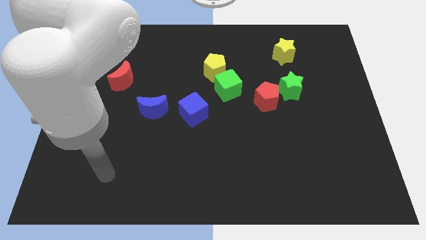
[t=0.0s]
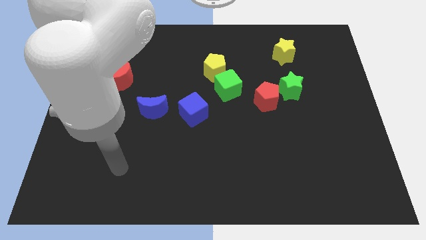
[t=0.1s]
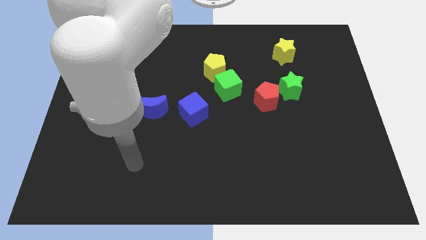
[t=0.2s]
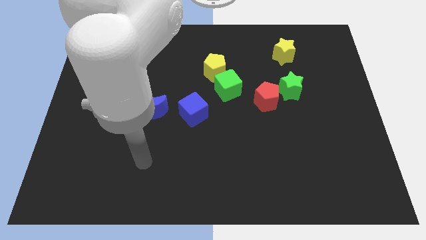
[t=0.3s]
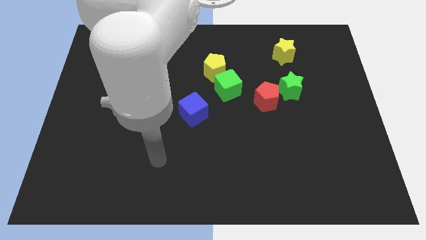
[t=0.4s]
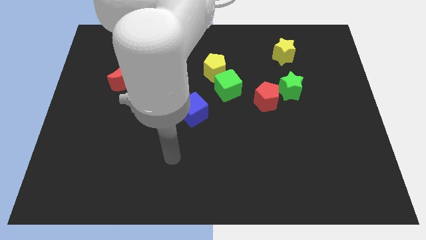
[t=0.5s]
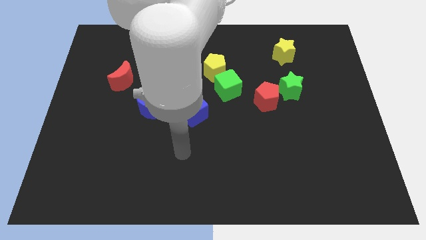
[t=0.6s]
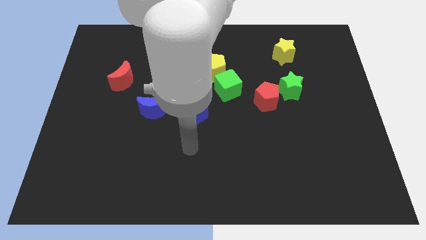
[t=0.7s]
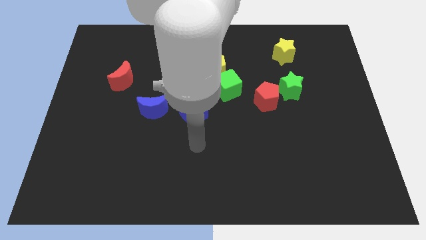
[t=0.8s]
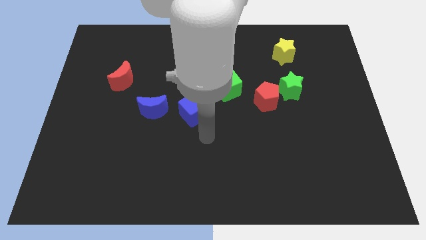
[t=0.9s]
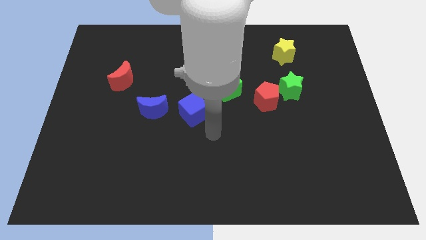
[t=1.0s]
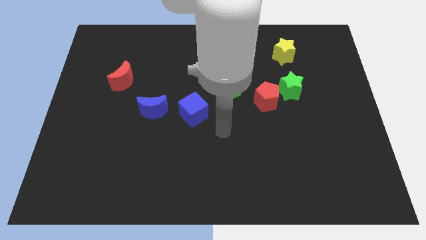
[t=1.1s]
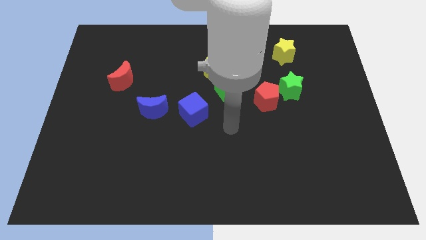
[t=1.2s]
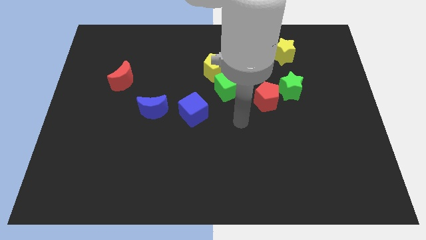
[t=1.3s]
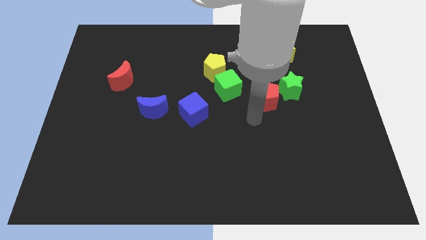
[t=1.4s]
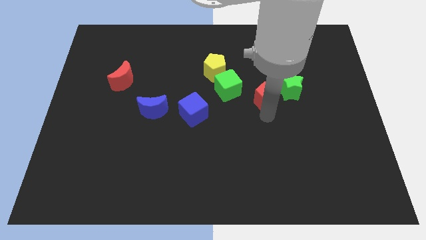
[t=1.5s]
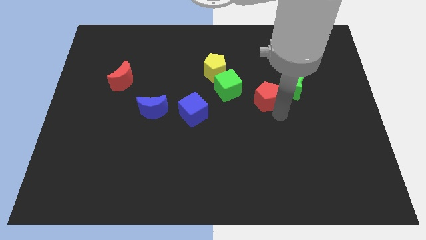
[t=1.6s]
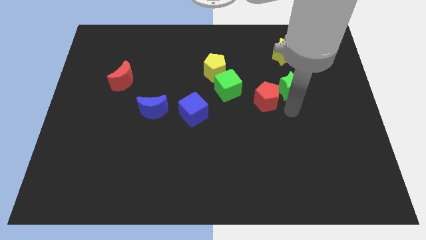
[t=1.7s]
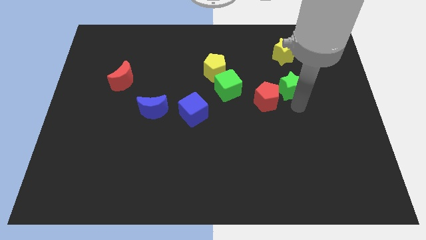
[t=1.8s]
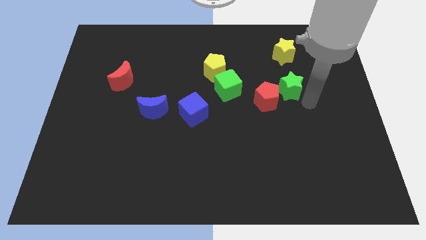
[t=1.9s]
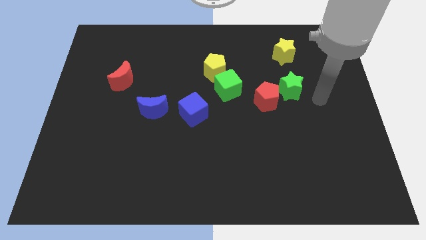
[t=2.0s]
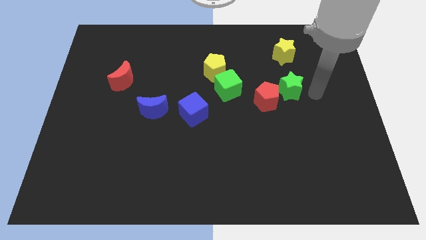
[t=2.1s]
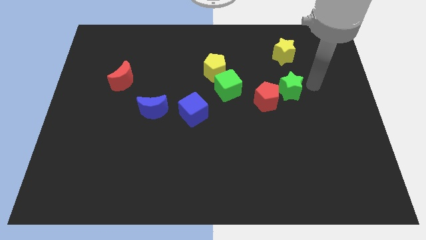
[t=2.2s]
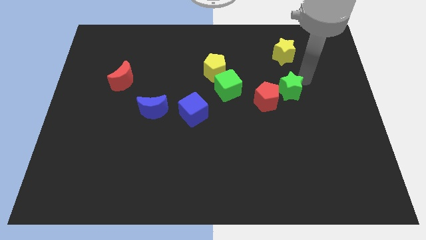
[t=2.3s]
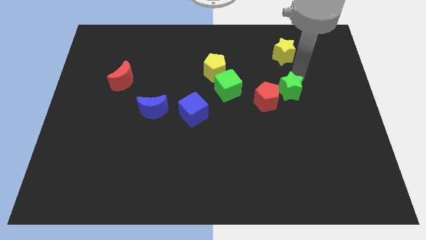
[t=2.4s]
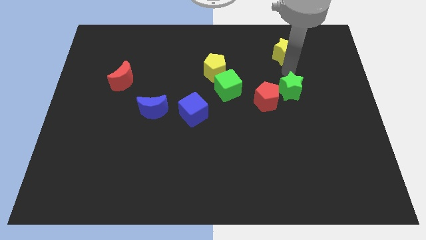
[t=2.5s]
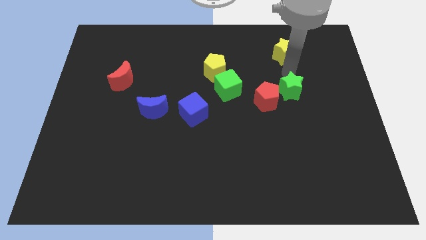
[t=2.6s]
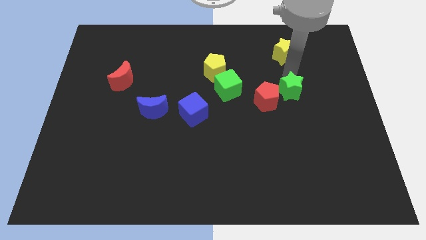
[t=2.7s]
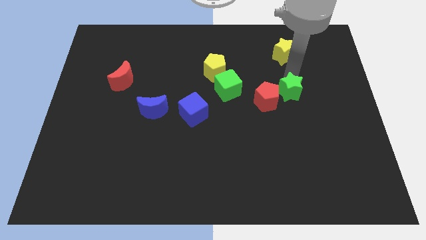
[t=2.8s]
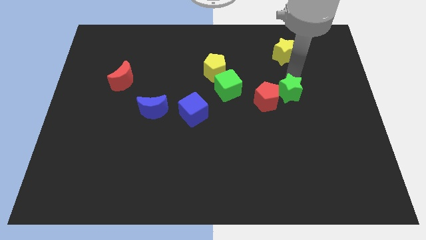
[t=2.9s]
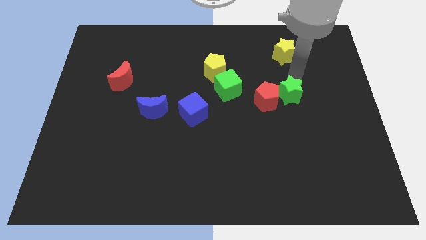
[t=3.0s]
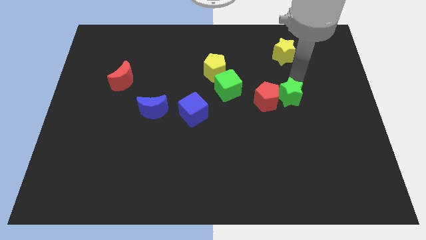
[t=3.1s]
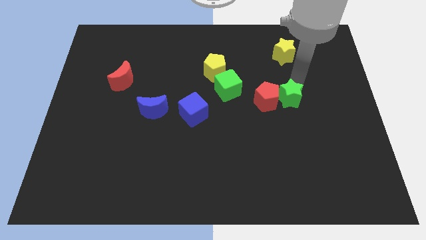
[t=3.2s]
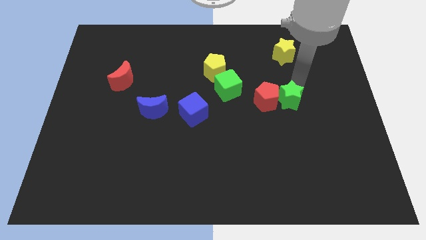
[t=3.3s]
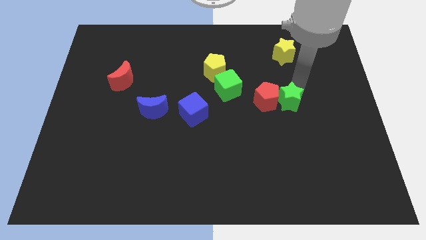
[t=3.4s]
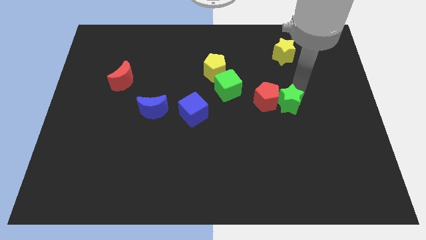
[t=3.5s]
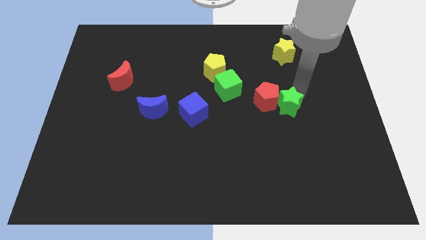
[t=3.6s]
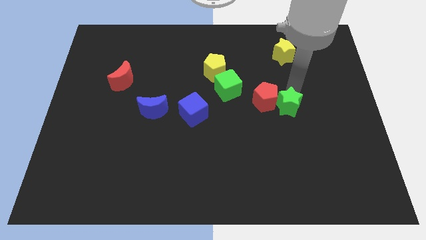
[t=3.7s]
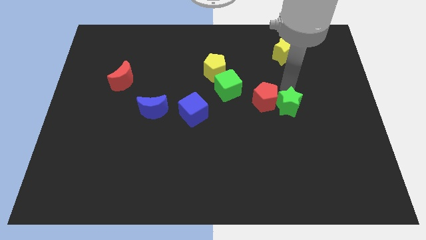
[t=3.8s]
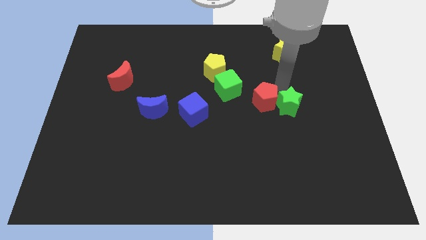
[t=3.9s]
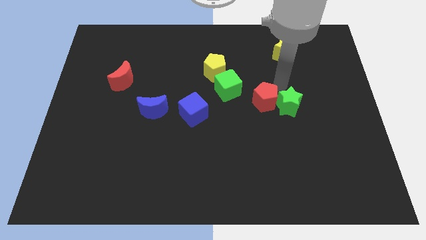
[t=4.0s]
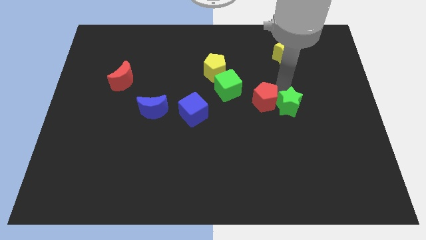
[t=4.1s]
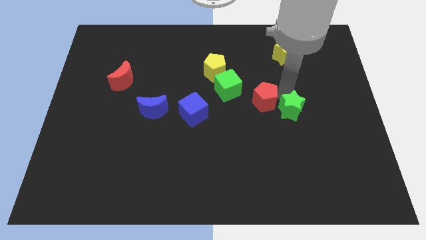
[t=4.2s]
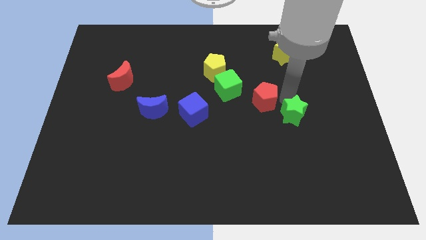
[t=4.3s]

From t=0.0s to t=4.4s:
slightly slide the green star down

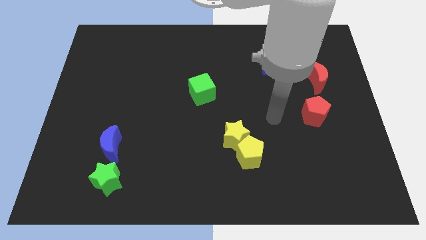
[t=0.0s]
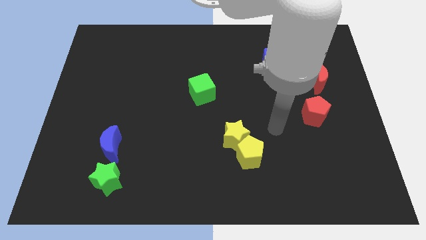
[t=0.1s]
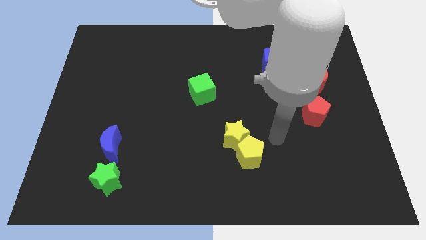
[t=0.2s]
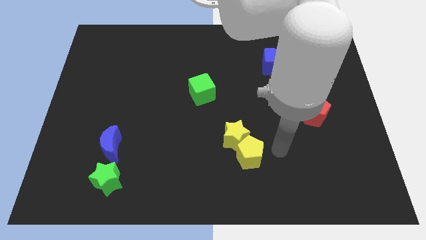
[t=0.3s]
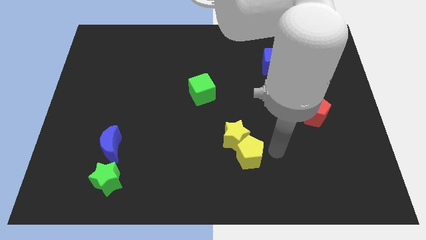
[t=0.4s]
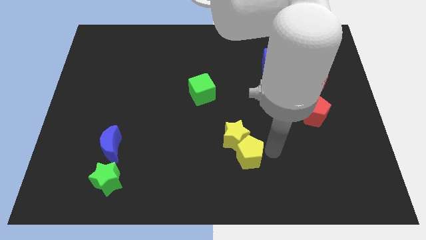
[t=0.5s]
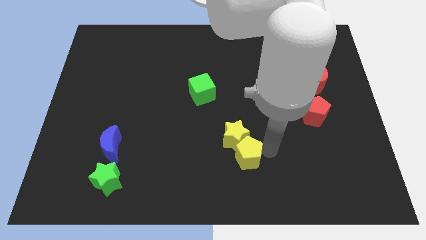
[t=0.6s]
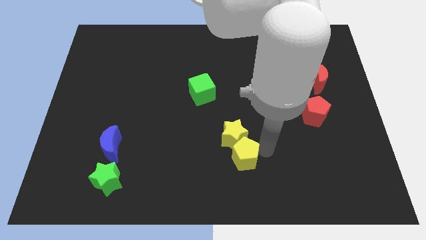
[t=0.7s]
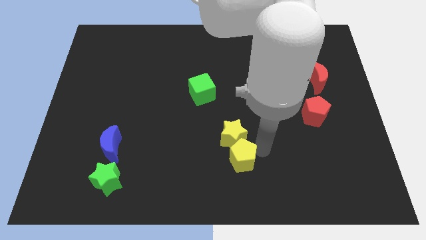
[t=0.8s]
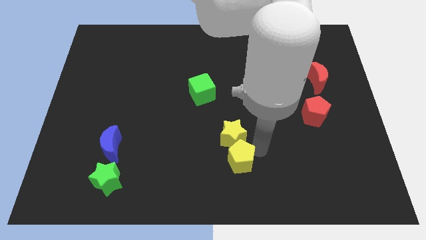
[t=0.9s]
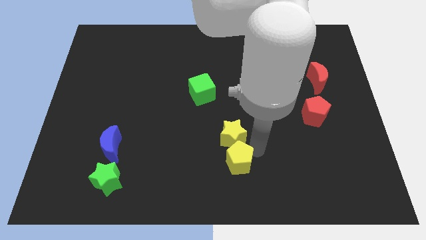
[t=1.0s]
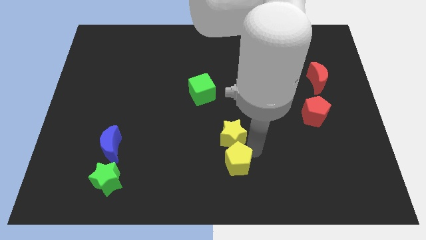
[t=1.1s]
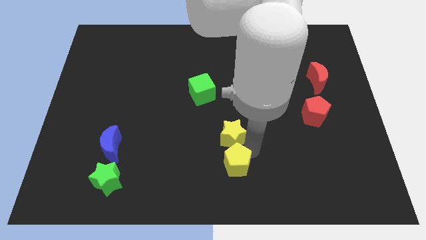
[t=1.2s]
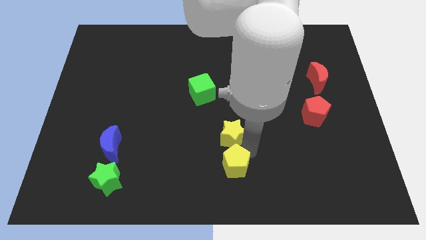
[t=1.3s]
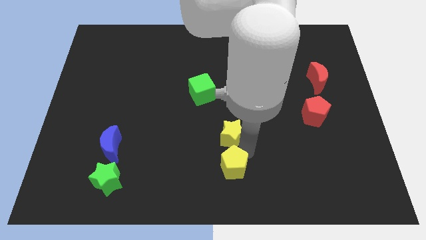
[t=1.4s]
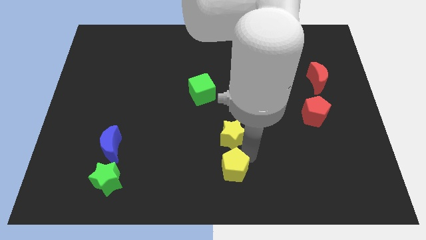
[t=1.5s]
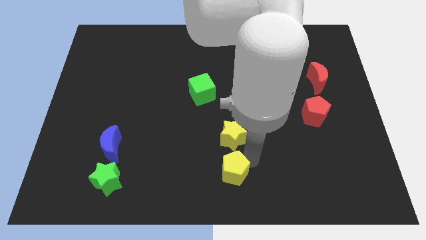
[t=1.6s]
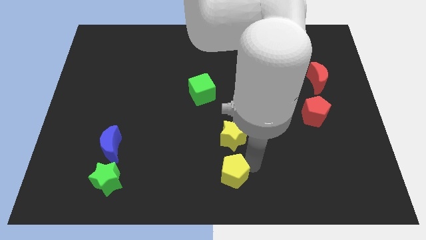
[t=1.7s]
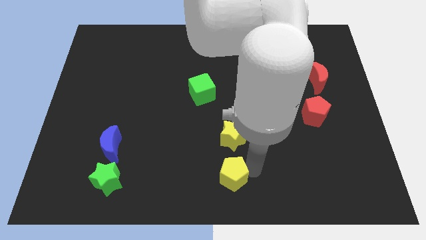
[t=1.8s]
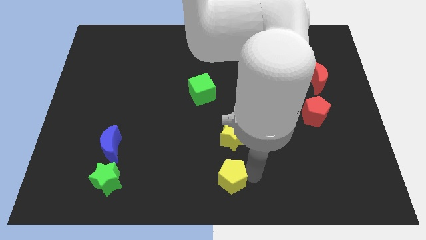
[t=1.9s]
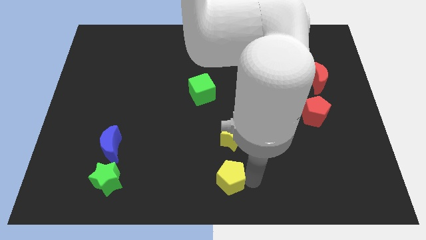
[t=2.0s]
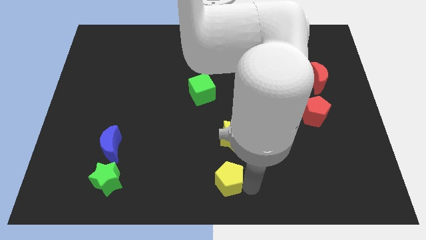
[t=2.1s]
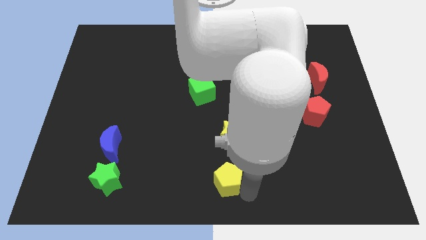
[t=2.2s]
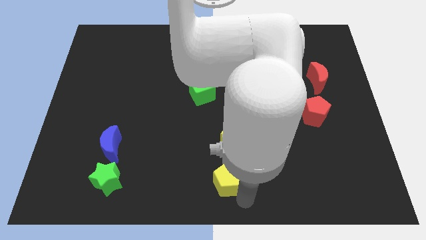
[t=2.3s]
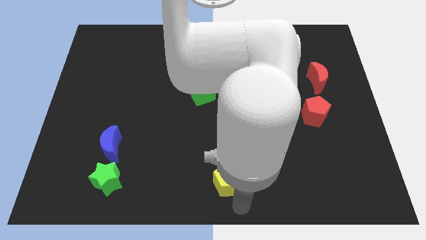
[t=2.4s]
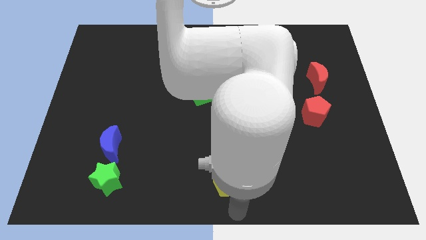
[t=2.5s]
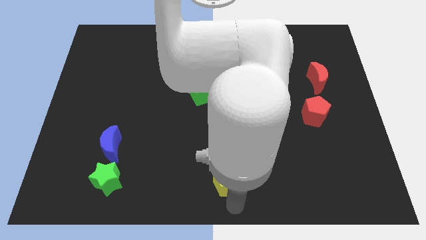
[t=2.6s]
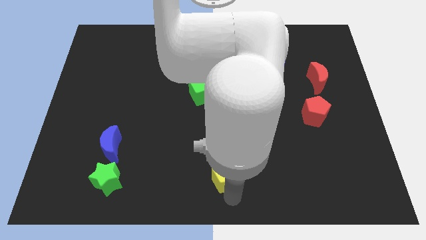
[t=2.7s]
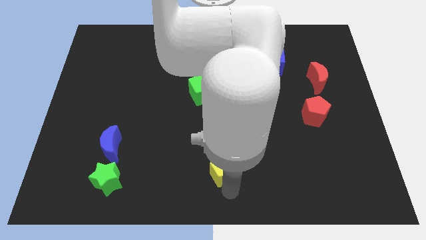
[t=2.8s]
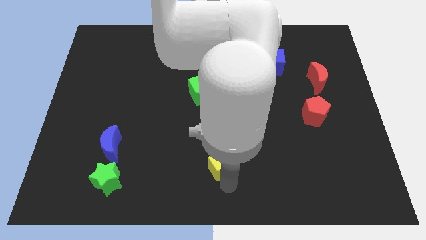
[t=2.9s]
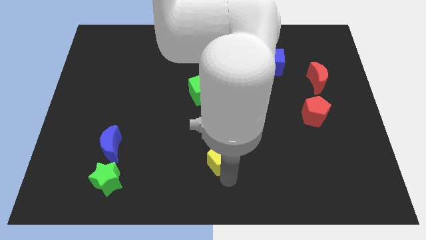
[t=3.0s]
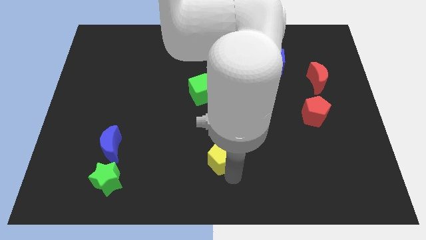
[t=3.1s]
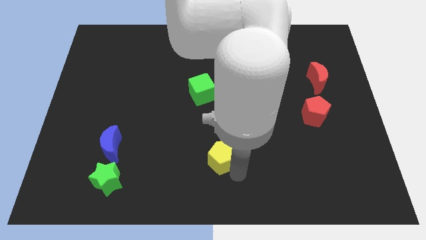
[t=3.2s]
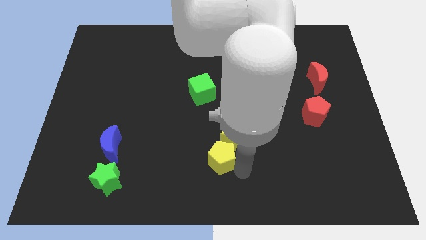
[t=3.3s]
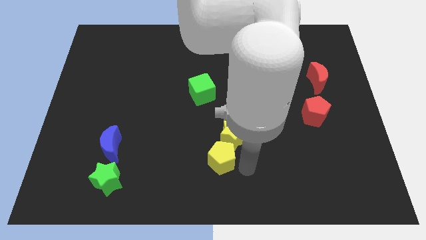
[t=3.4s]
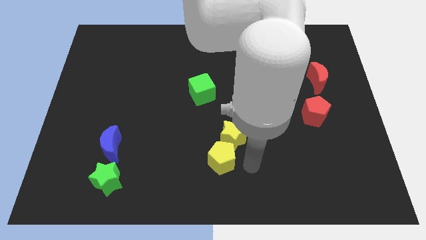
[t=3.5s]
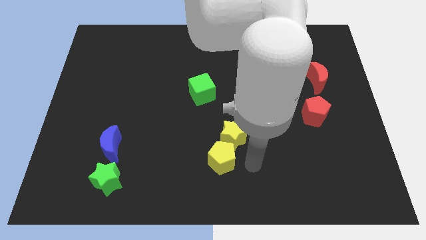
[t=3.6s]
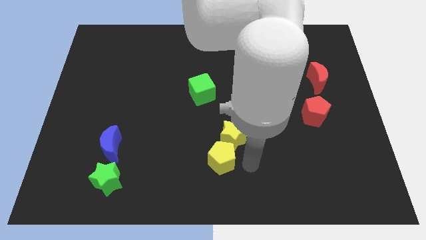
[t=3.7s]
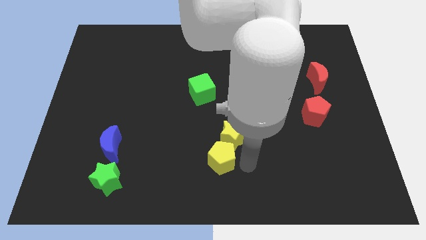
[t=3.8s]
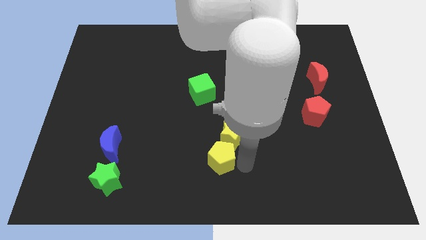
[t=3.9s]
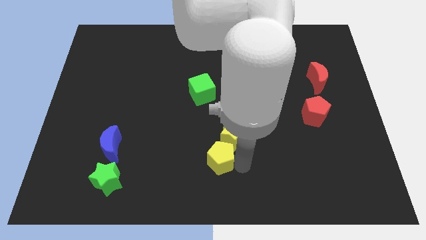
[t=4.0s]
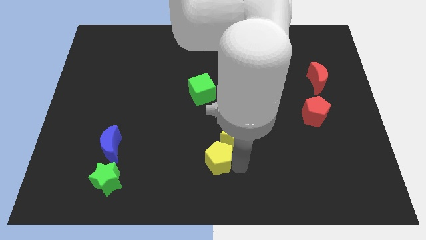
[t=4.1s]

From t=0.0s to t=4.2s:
slightly slide the yellow pentagon to the left
